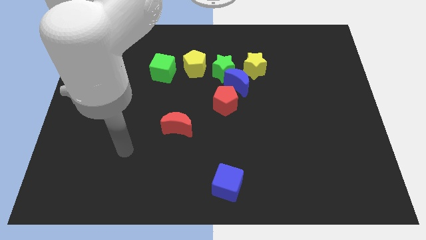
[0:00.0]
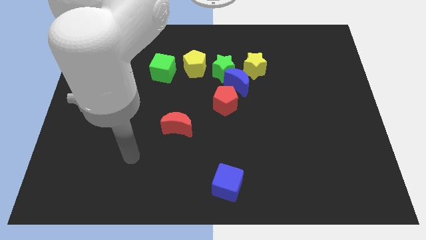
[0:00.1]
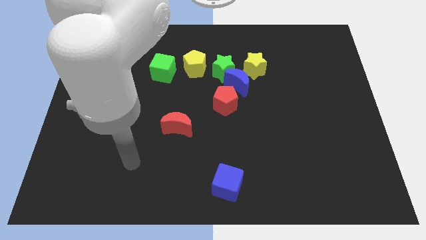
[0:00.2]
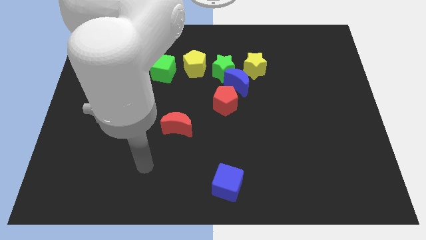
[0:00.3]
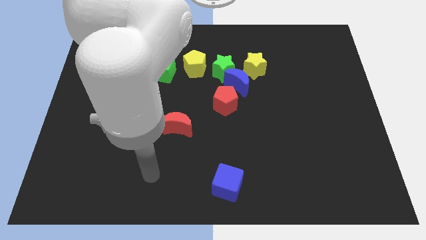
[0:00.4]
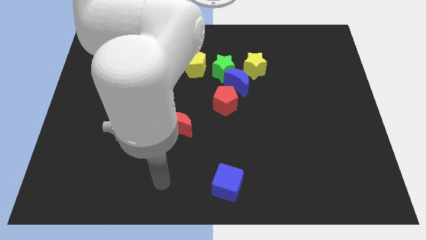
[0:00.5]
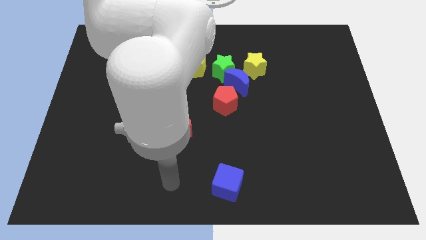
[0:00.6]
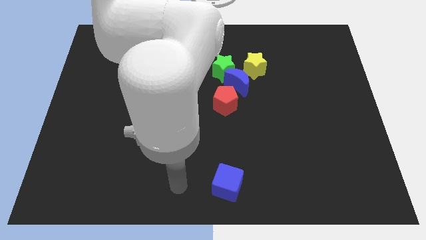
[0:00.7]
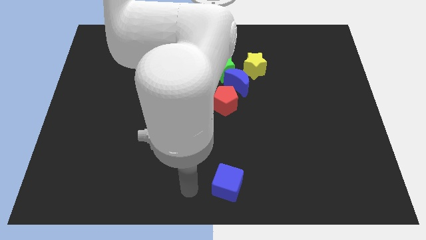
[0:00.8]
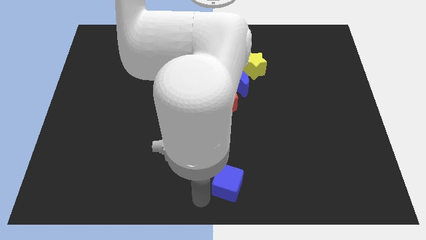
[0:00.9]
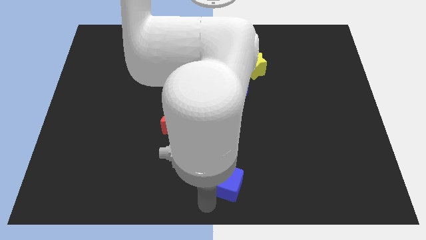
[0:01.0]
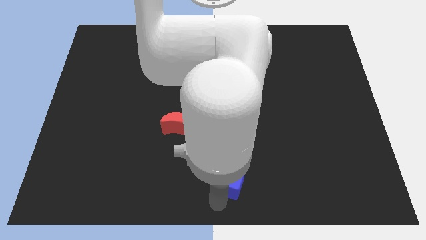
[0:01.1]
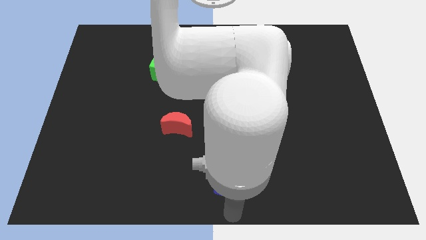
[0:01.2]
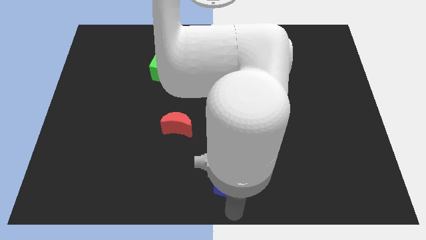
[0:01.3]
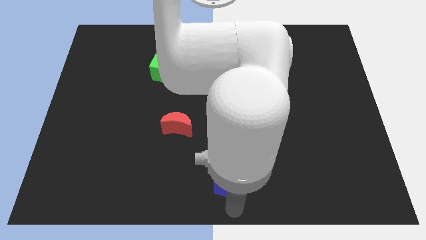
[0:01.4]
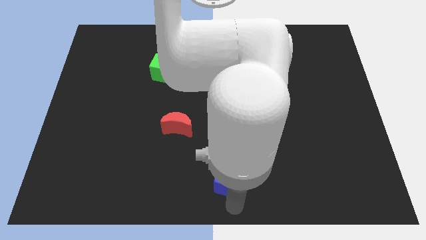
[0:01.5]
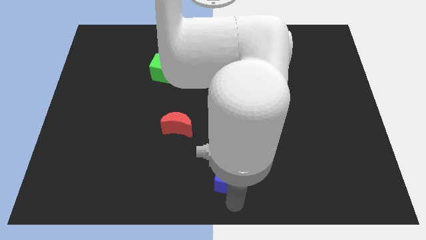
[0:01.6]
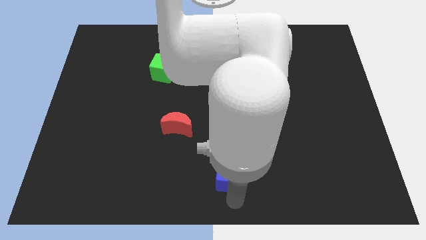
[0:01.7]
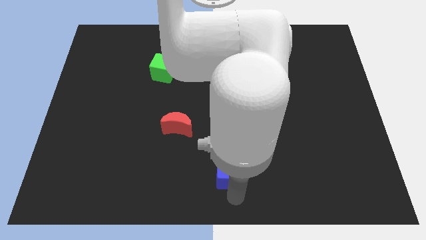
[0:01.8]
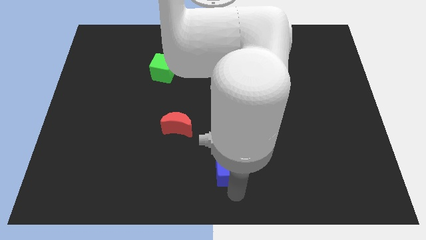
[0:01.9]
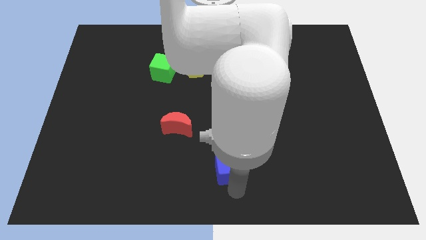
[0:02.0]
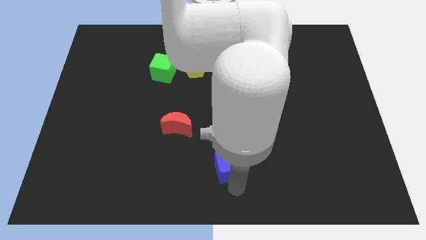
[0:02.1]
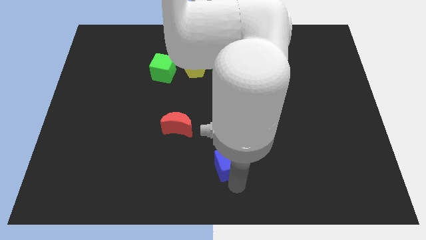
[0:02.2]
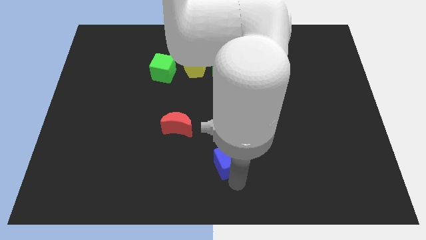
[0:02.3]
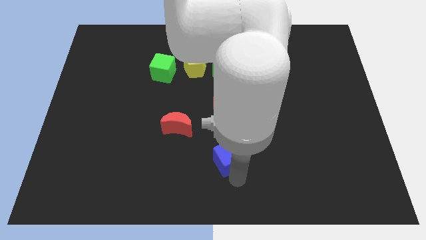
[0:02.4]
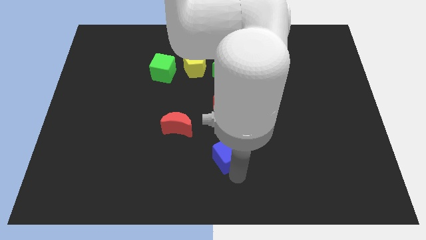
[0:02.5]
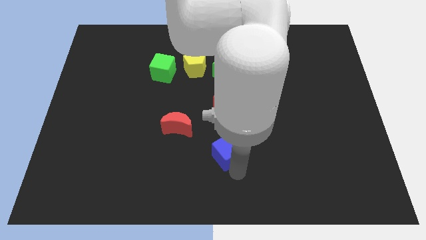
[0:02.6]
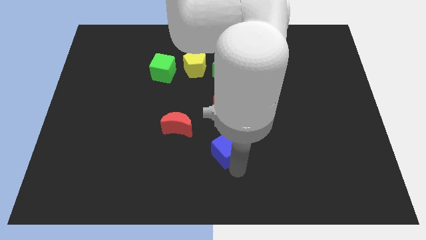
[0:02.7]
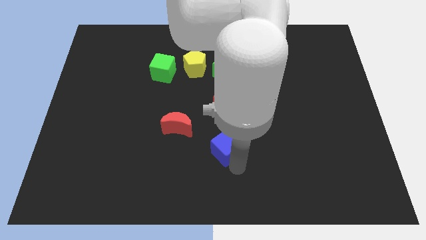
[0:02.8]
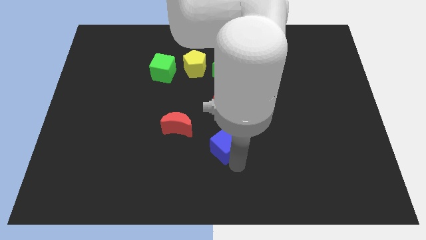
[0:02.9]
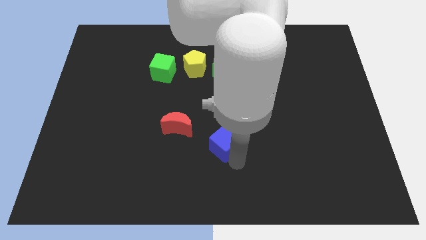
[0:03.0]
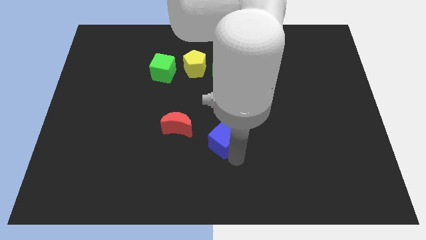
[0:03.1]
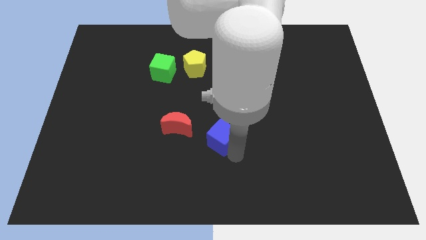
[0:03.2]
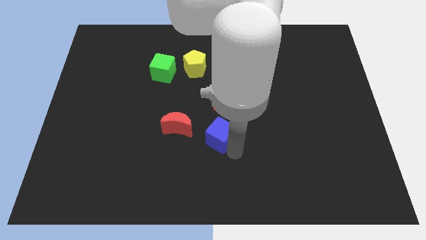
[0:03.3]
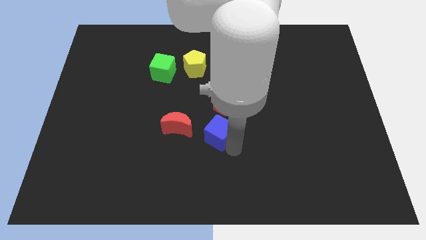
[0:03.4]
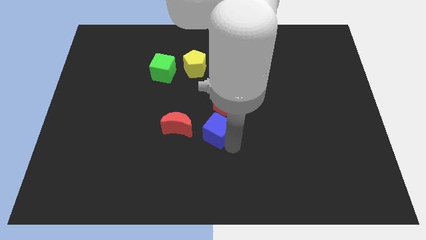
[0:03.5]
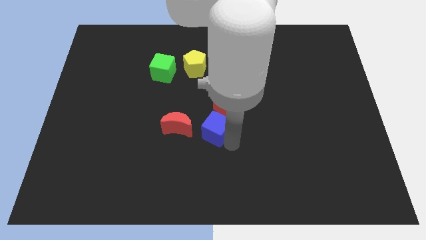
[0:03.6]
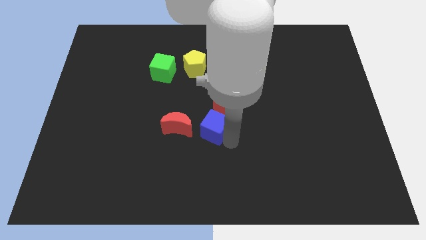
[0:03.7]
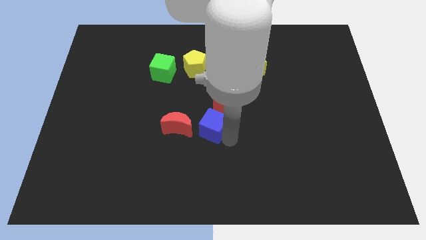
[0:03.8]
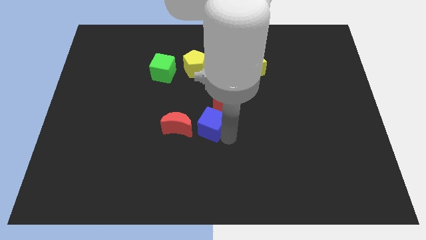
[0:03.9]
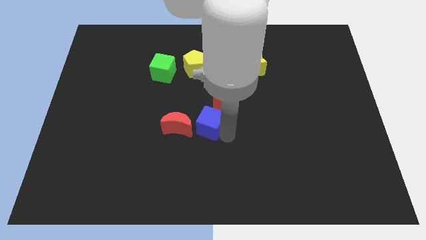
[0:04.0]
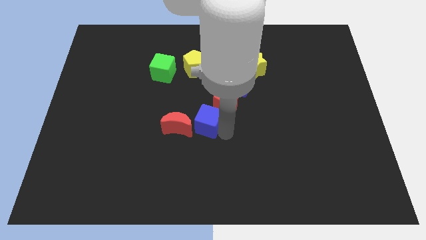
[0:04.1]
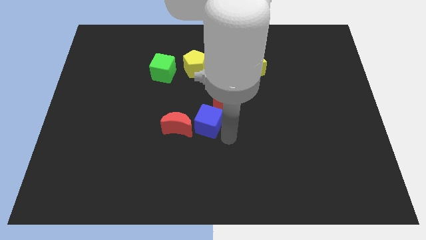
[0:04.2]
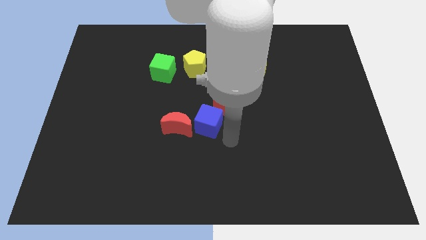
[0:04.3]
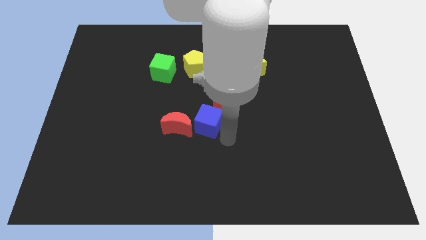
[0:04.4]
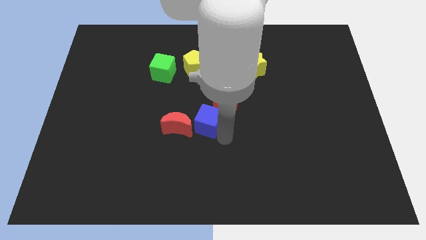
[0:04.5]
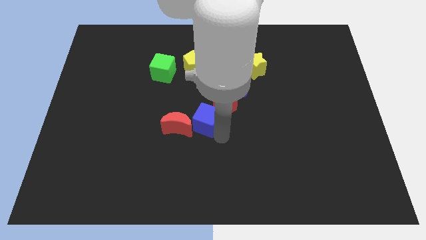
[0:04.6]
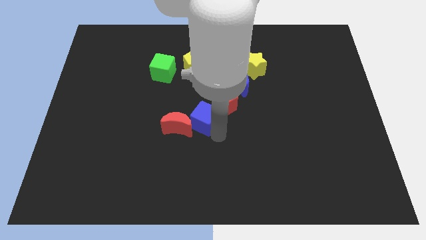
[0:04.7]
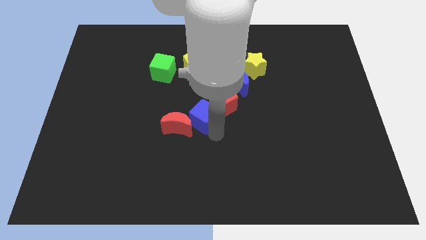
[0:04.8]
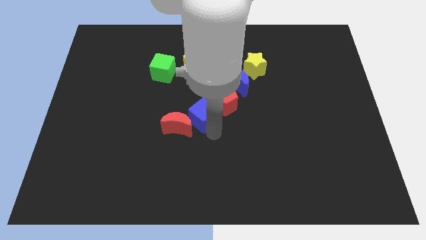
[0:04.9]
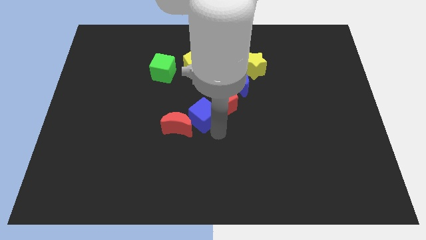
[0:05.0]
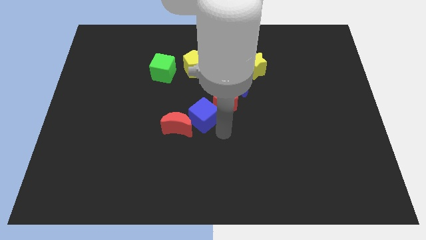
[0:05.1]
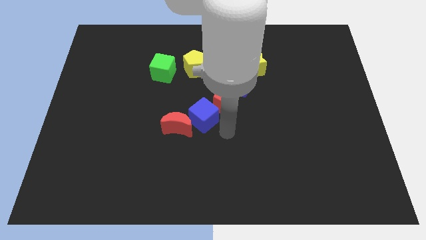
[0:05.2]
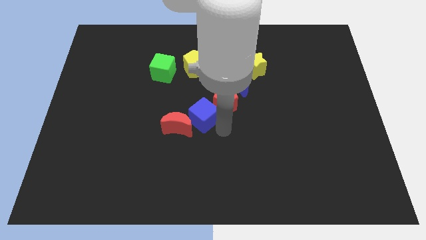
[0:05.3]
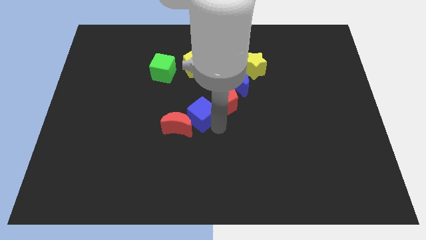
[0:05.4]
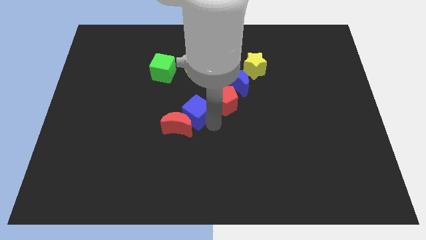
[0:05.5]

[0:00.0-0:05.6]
push the blue cube to the top of the red moon

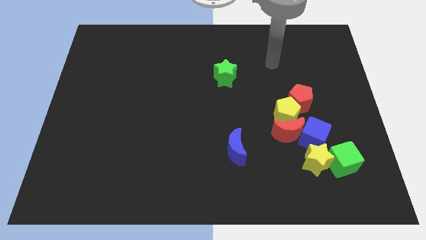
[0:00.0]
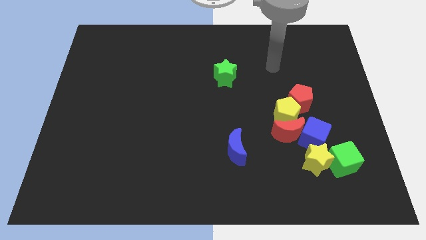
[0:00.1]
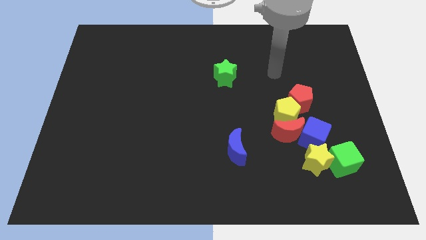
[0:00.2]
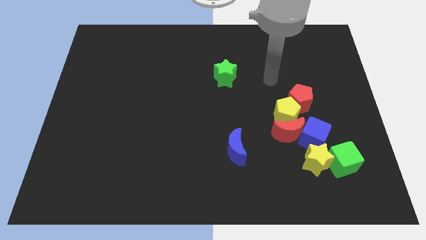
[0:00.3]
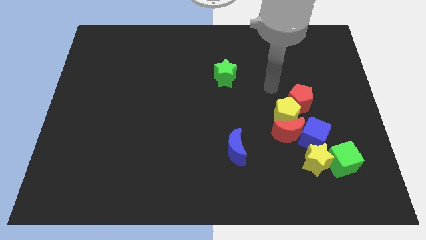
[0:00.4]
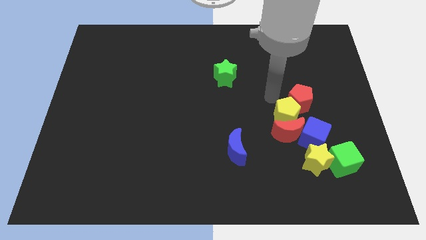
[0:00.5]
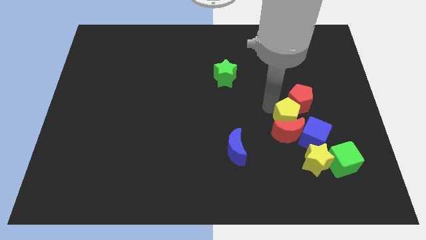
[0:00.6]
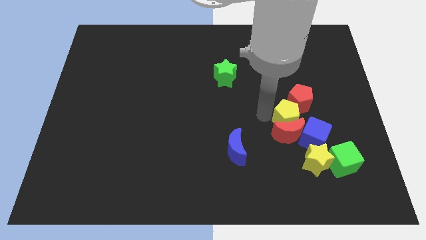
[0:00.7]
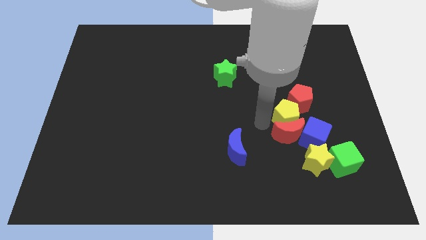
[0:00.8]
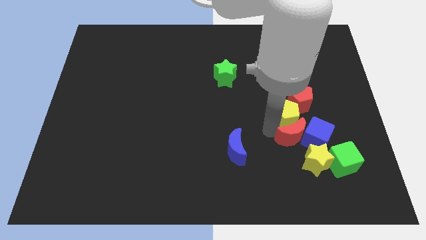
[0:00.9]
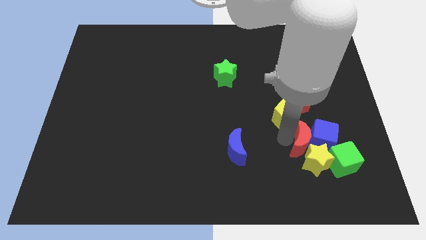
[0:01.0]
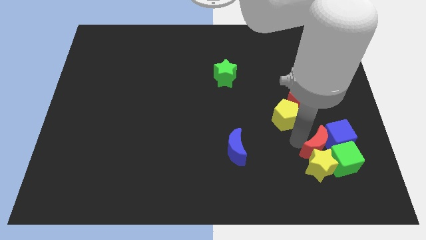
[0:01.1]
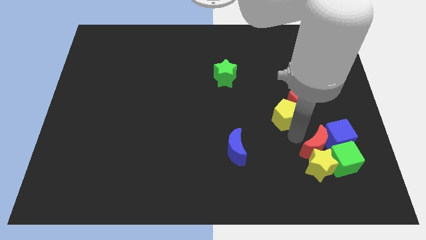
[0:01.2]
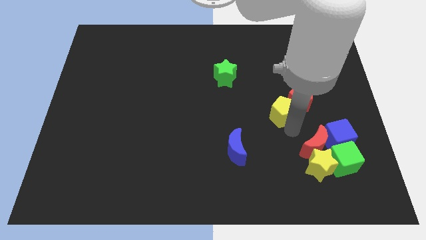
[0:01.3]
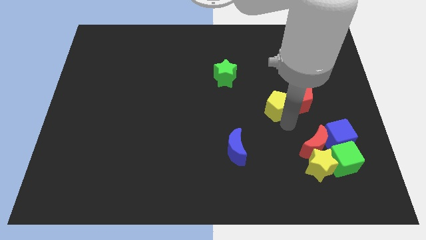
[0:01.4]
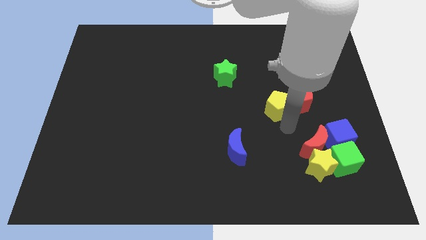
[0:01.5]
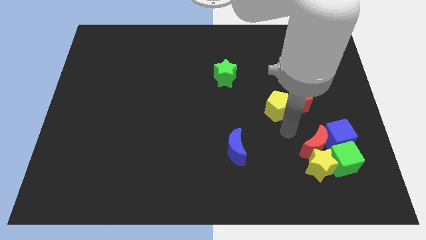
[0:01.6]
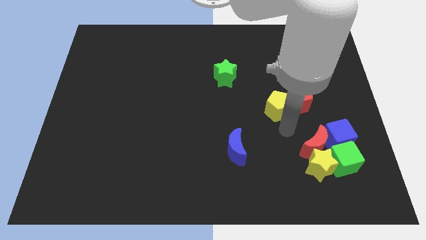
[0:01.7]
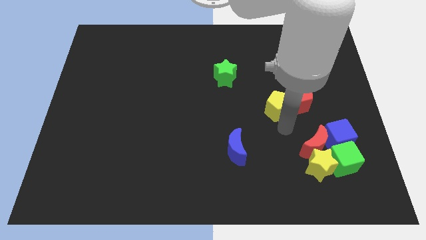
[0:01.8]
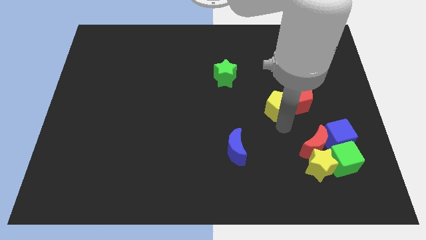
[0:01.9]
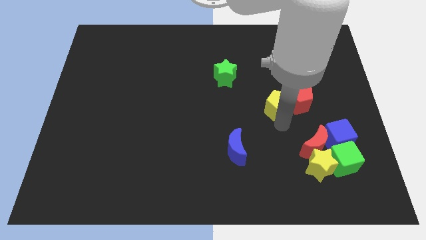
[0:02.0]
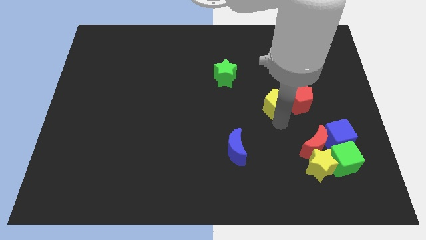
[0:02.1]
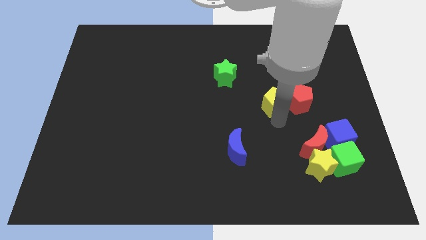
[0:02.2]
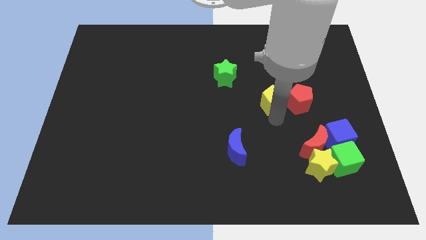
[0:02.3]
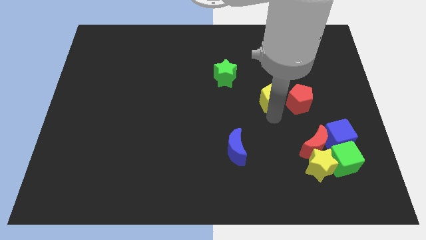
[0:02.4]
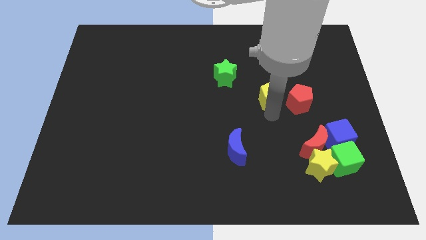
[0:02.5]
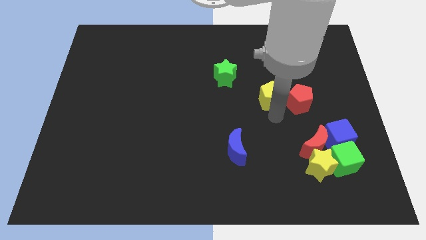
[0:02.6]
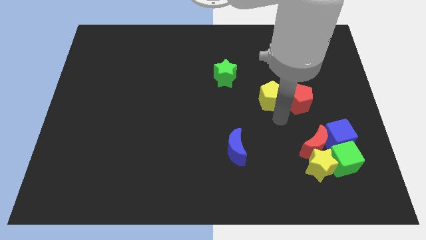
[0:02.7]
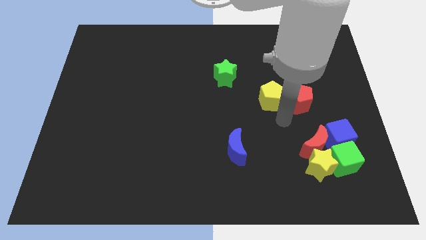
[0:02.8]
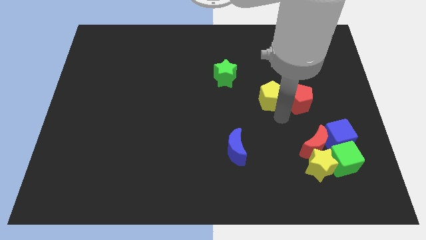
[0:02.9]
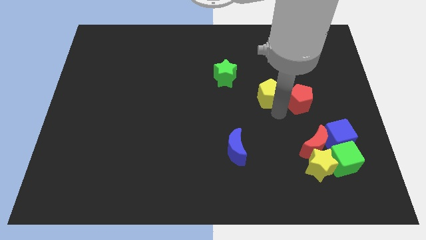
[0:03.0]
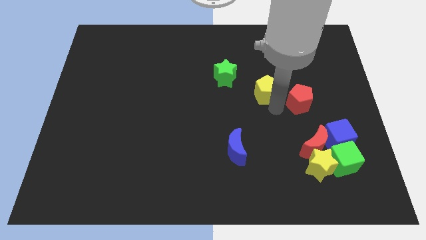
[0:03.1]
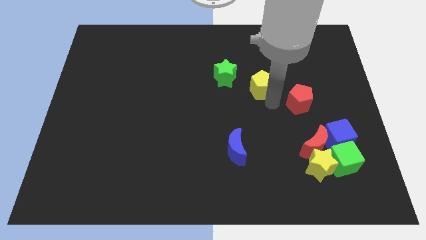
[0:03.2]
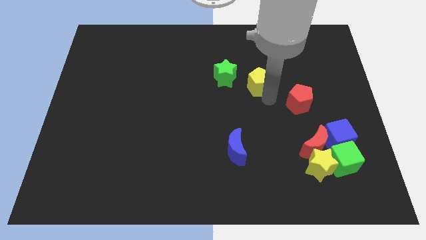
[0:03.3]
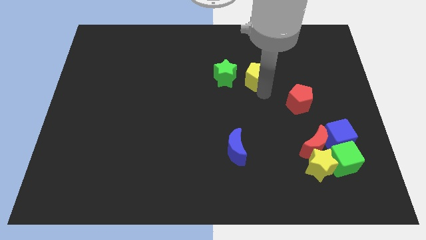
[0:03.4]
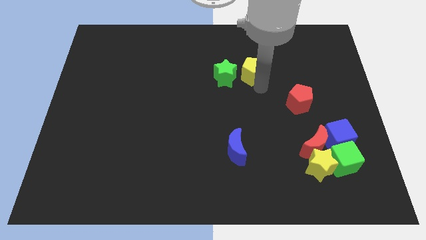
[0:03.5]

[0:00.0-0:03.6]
push the yellow pentagon diagonally up and to the right of the green star
